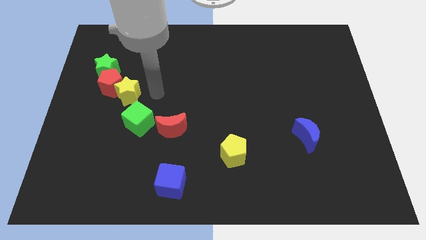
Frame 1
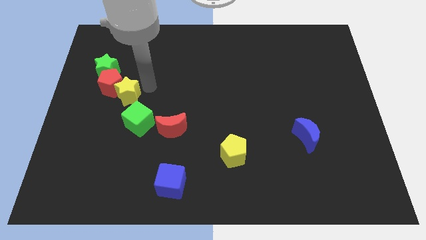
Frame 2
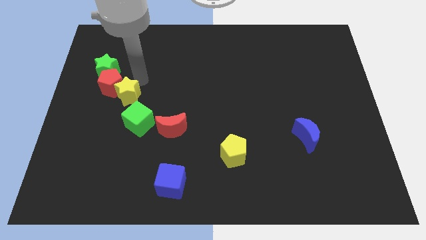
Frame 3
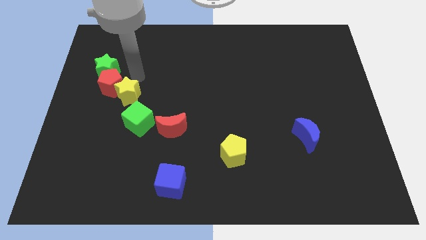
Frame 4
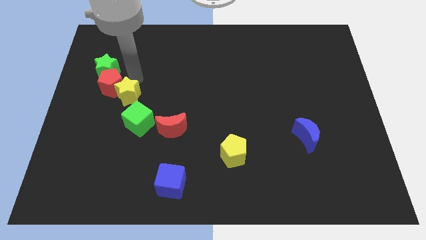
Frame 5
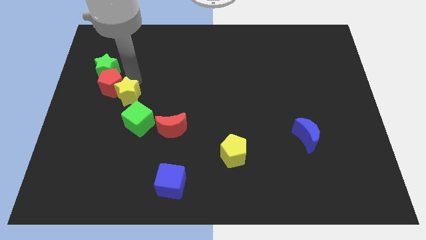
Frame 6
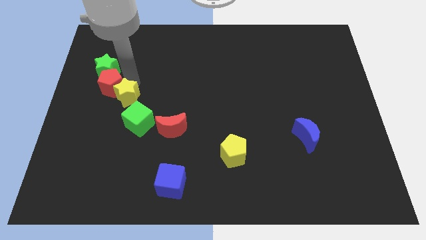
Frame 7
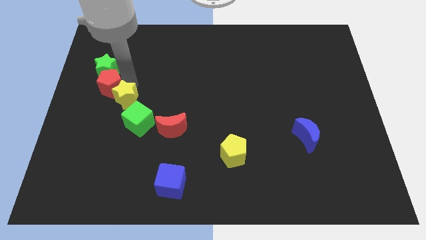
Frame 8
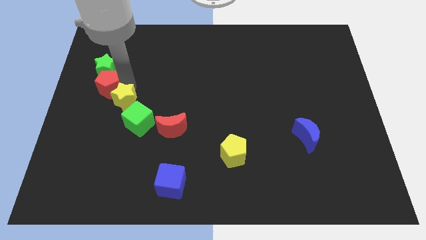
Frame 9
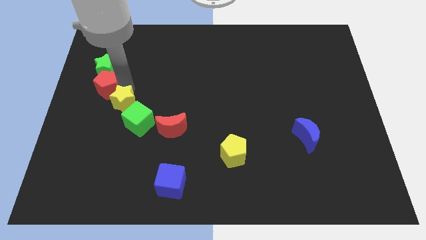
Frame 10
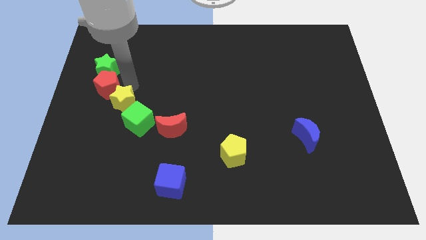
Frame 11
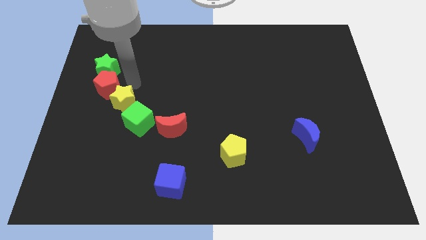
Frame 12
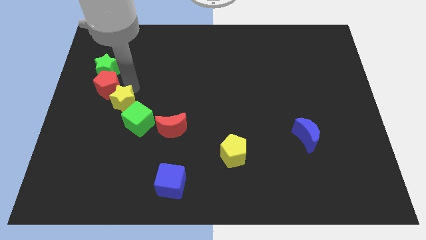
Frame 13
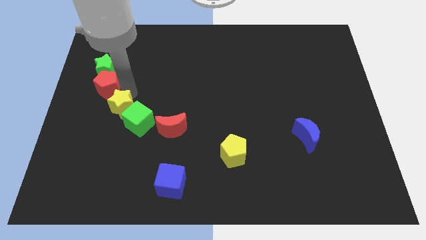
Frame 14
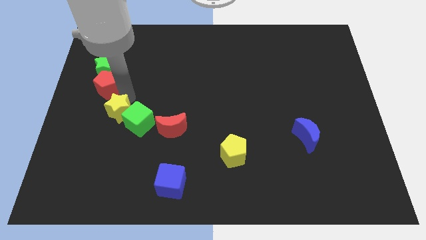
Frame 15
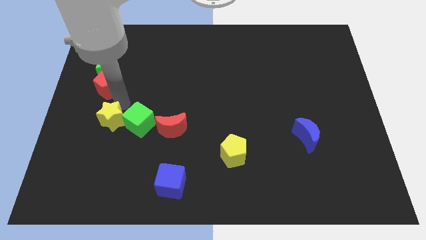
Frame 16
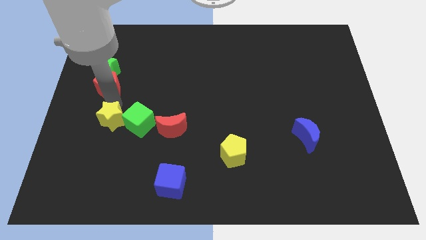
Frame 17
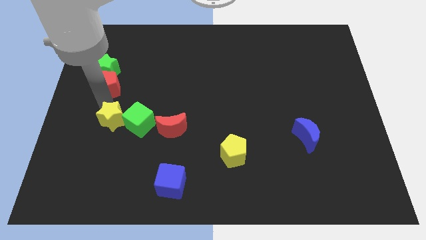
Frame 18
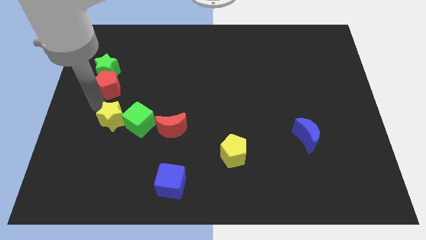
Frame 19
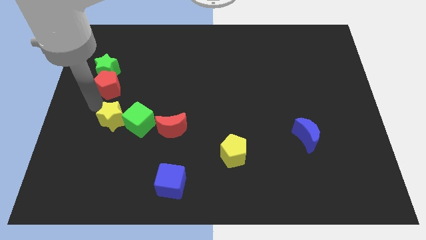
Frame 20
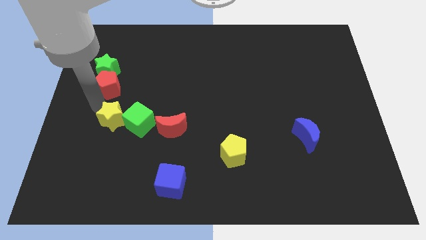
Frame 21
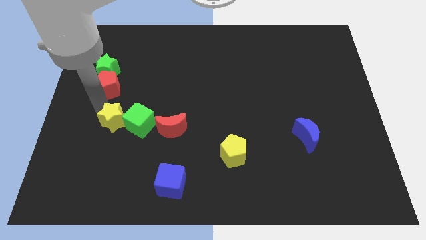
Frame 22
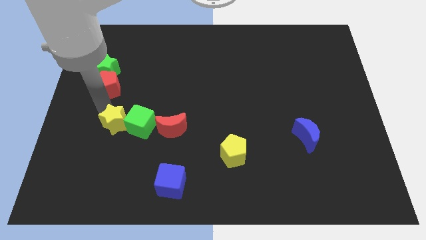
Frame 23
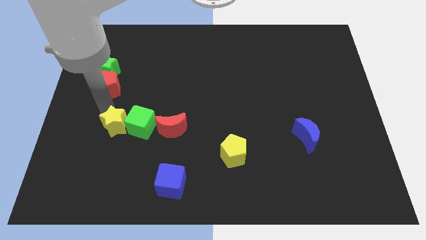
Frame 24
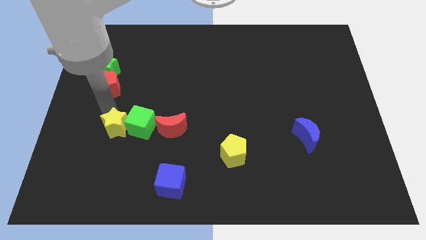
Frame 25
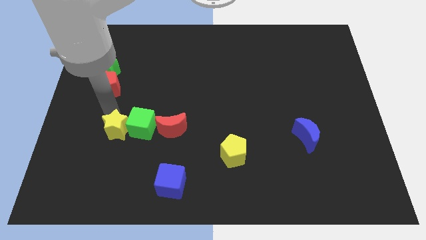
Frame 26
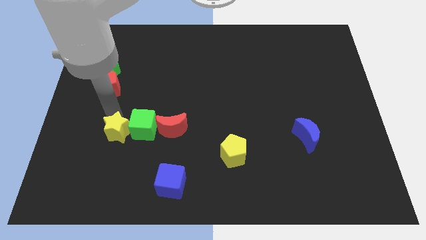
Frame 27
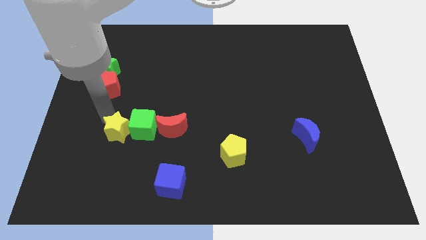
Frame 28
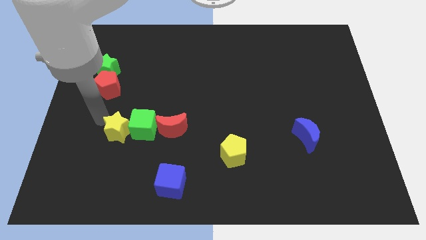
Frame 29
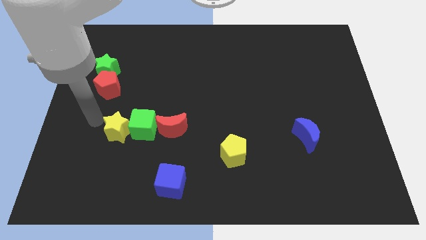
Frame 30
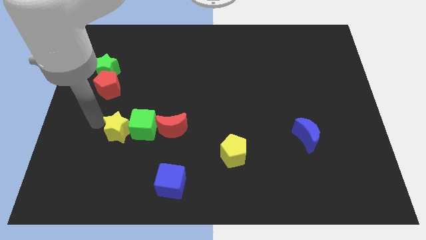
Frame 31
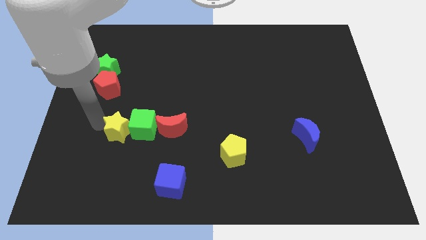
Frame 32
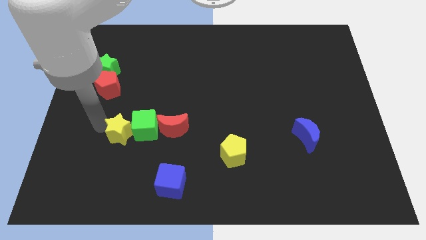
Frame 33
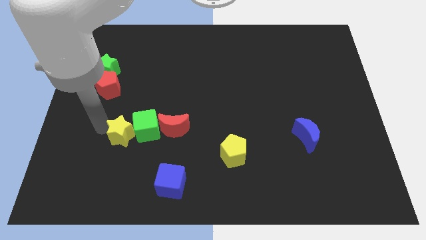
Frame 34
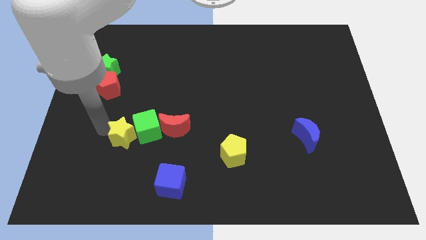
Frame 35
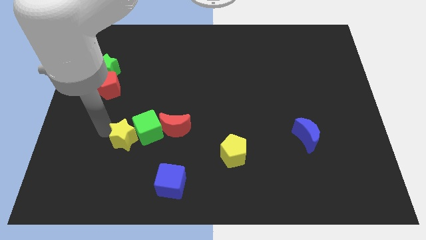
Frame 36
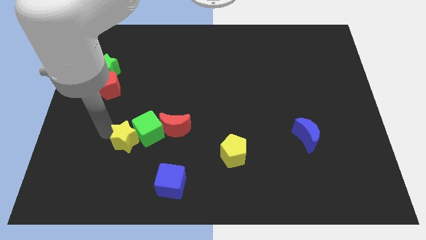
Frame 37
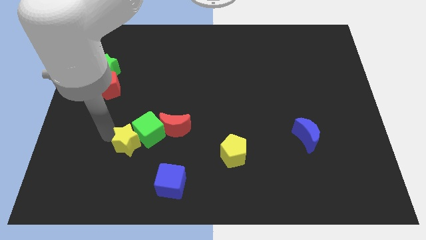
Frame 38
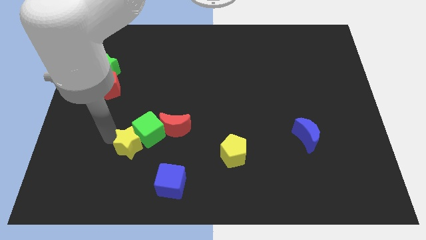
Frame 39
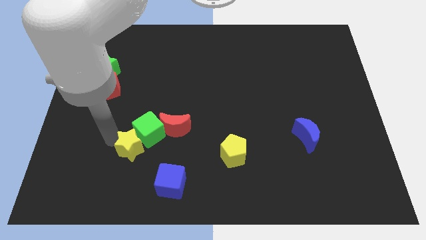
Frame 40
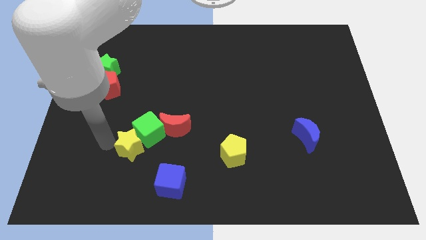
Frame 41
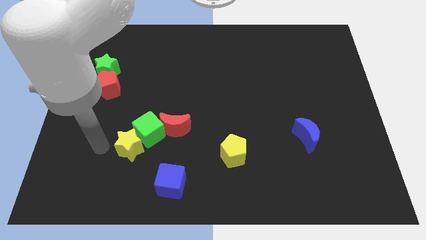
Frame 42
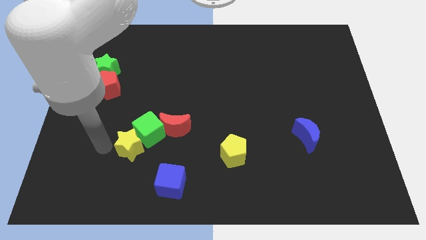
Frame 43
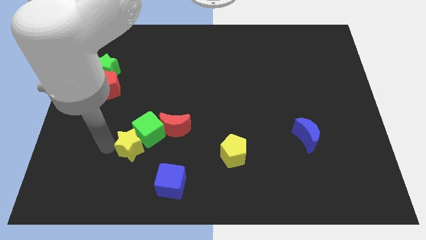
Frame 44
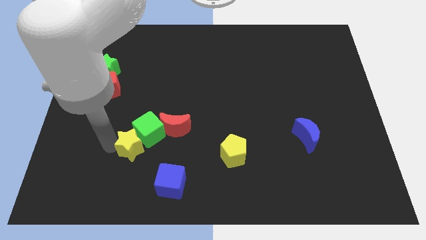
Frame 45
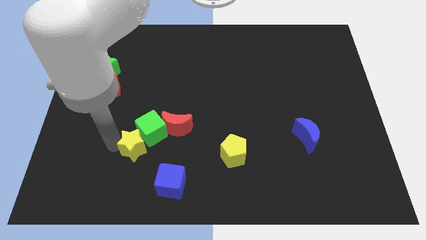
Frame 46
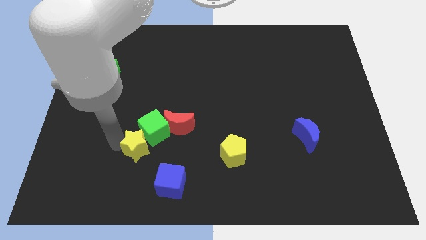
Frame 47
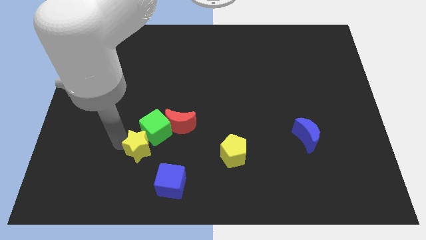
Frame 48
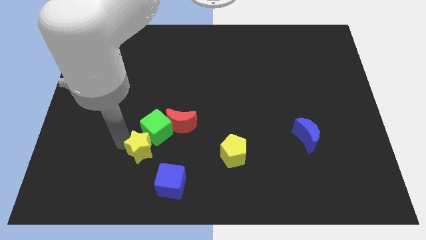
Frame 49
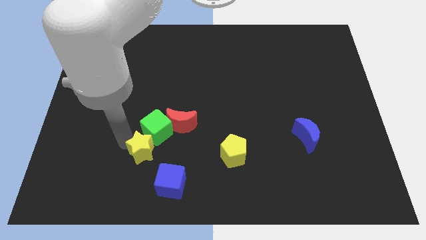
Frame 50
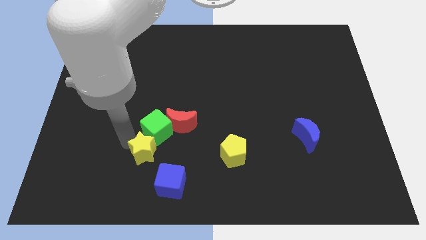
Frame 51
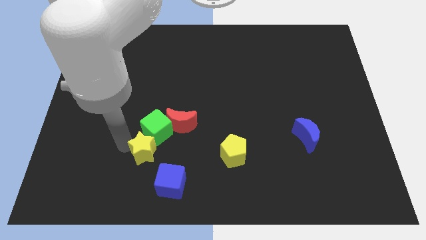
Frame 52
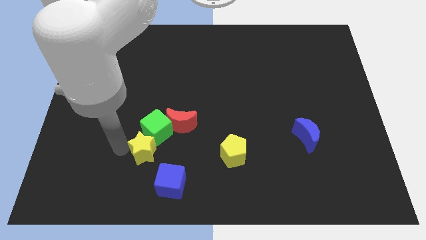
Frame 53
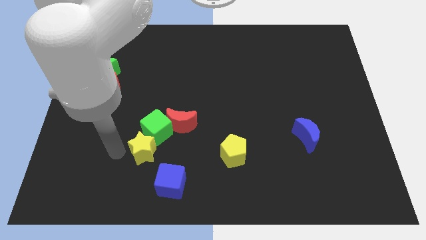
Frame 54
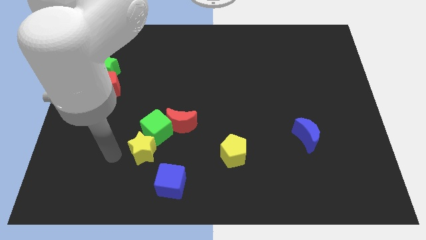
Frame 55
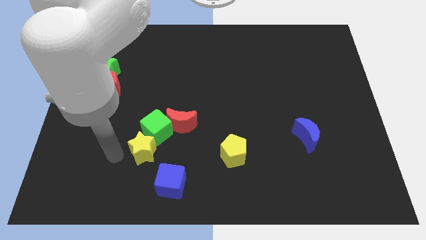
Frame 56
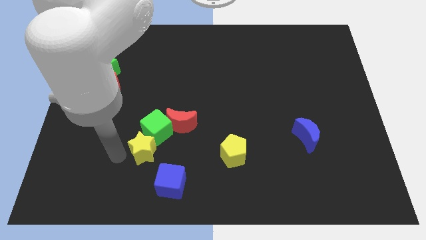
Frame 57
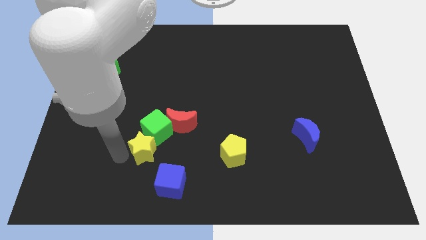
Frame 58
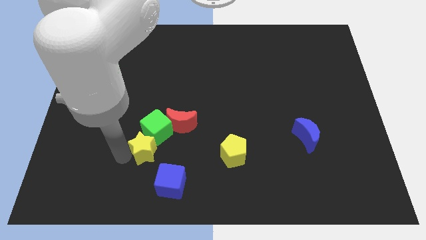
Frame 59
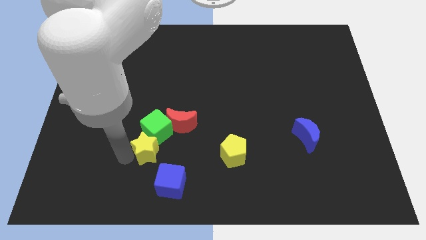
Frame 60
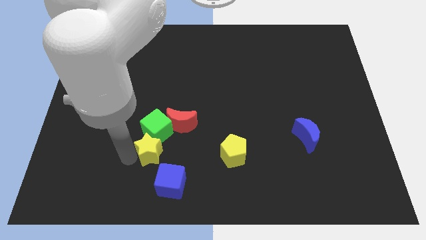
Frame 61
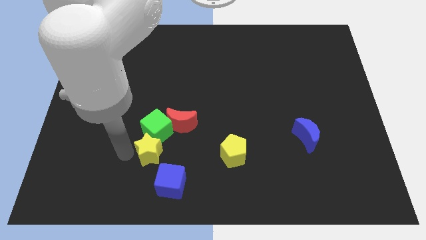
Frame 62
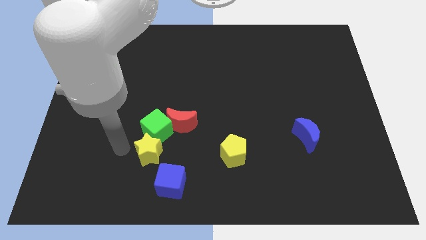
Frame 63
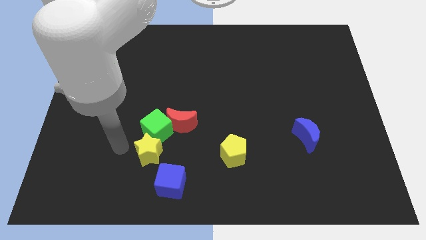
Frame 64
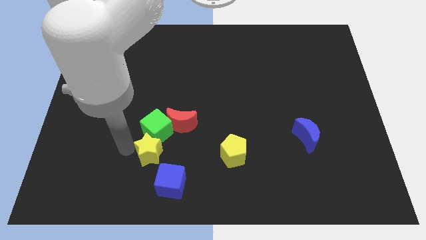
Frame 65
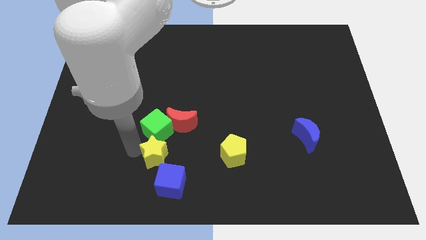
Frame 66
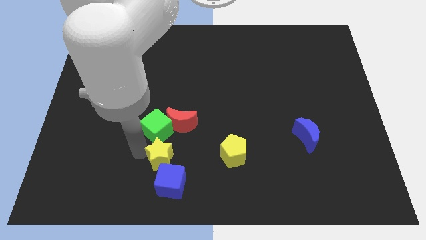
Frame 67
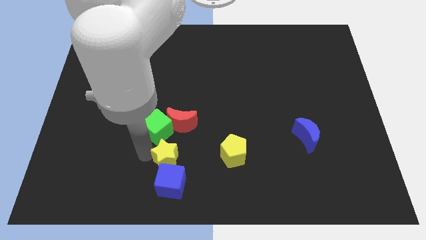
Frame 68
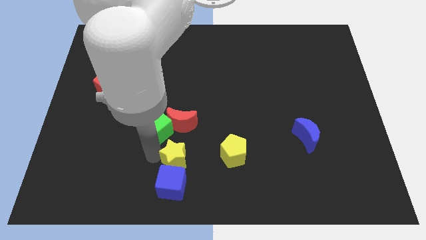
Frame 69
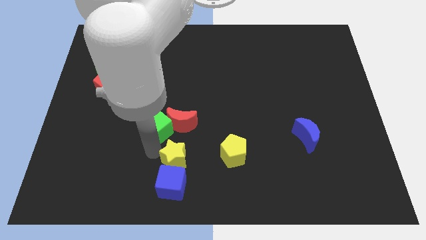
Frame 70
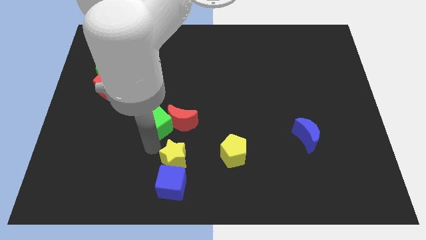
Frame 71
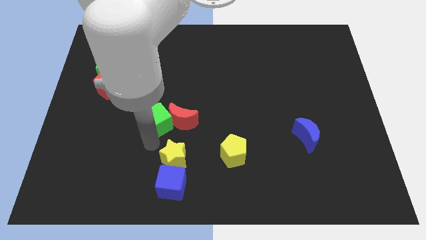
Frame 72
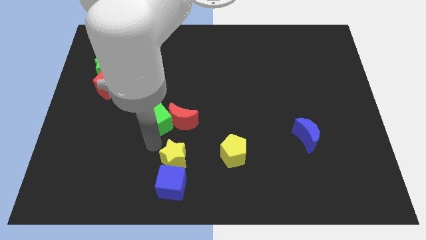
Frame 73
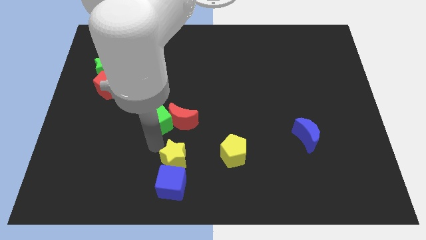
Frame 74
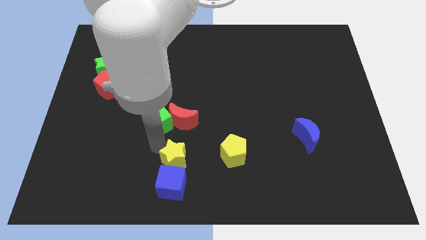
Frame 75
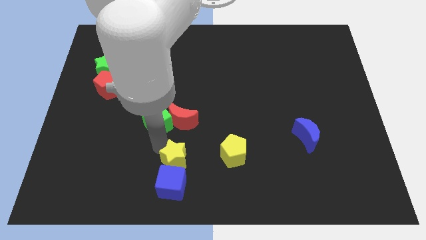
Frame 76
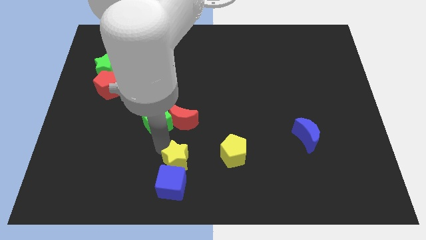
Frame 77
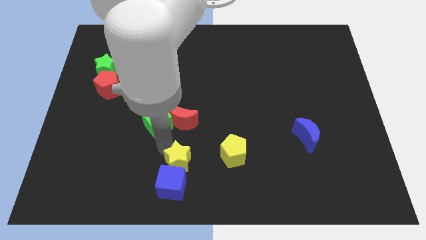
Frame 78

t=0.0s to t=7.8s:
slide the yellow star to the bottom
